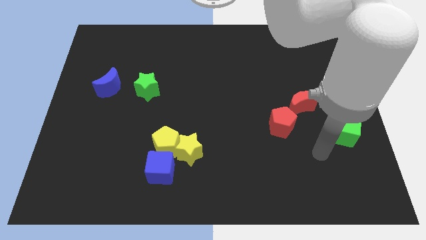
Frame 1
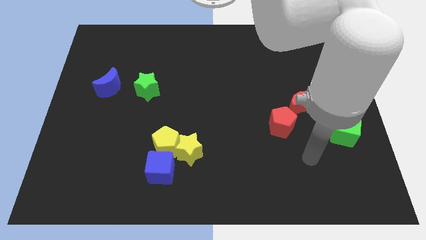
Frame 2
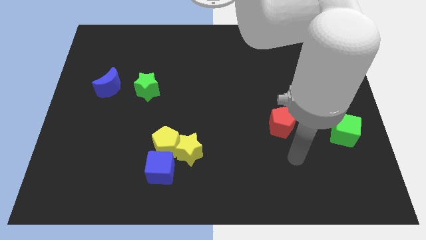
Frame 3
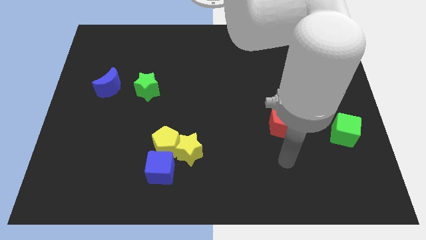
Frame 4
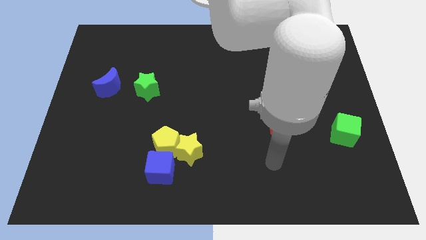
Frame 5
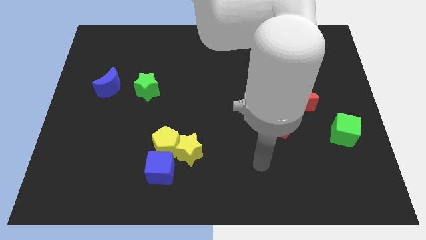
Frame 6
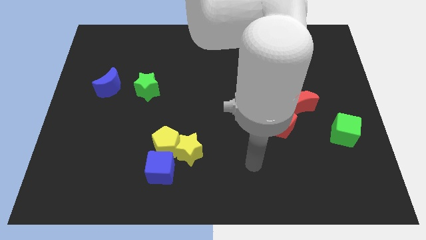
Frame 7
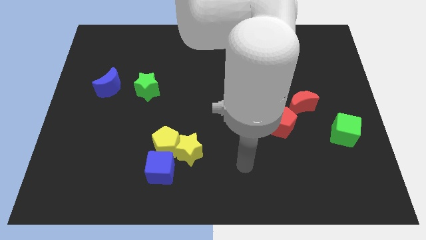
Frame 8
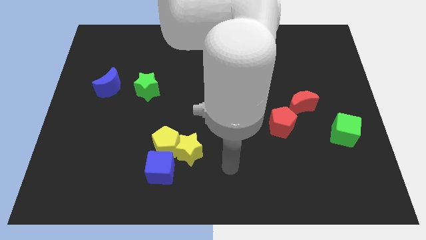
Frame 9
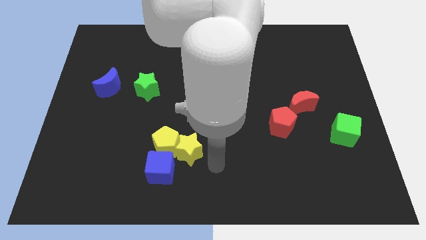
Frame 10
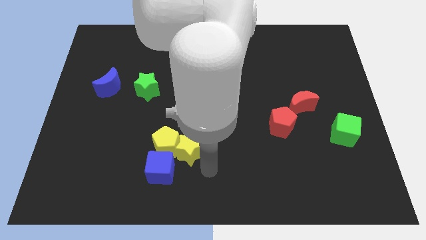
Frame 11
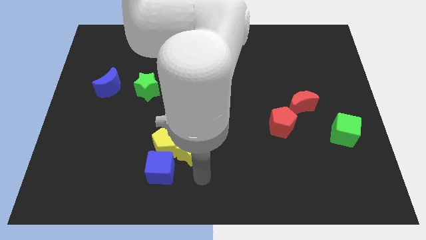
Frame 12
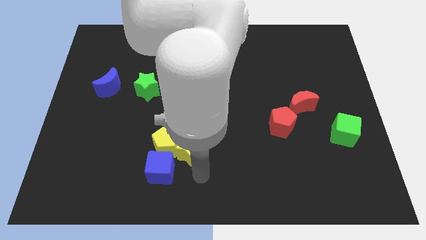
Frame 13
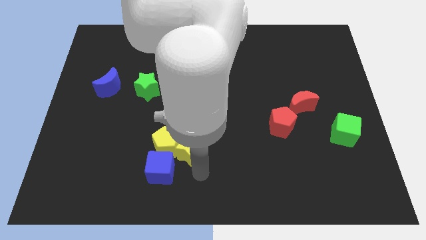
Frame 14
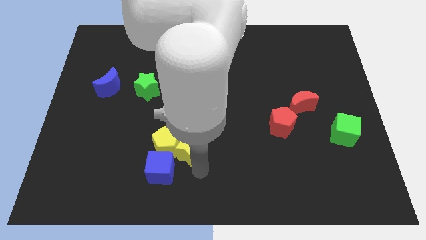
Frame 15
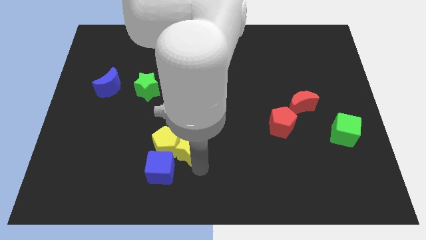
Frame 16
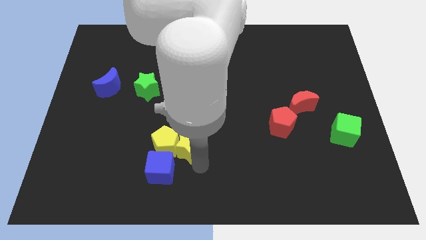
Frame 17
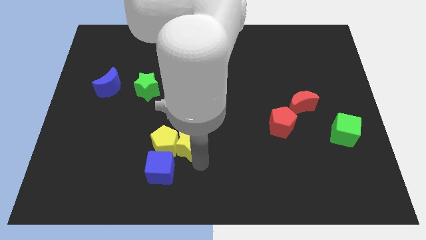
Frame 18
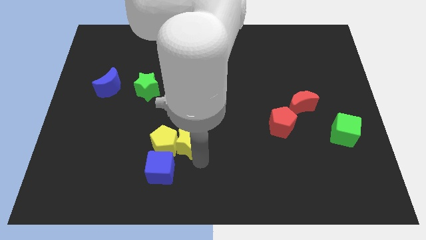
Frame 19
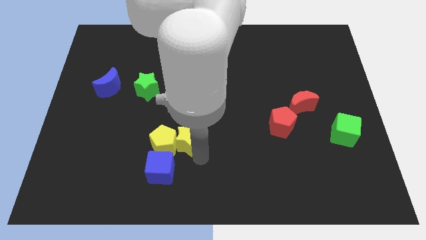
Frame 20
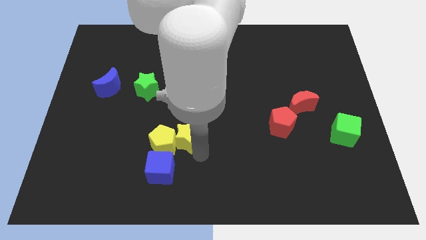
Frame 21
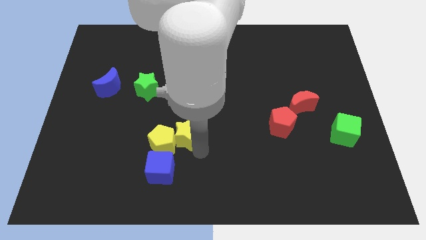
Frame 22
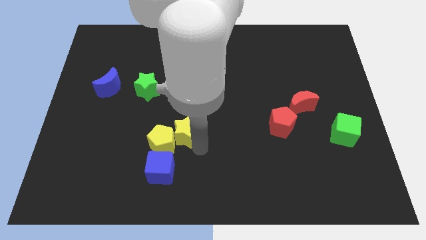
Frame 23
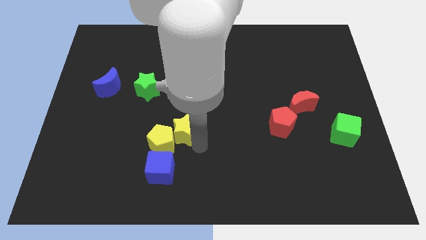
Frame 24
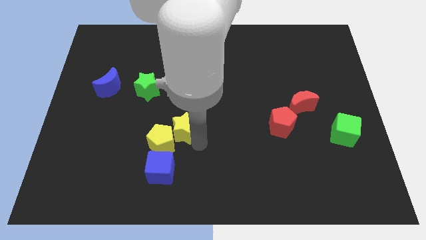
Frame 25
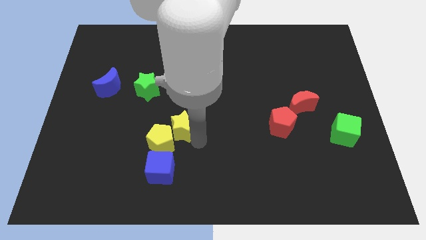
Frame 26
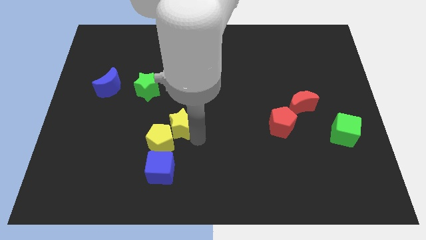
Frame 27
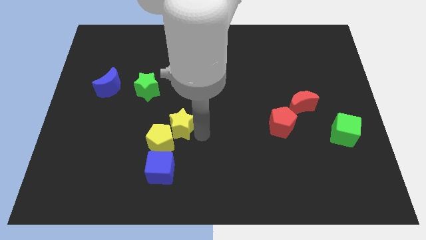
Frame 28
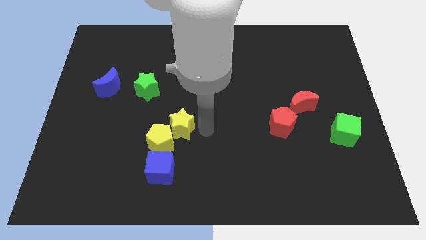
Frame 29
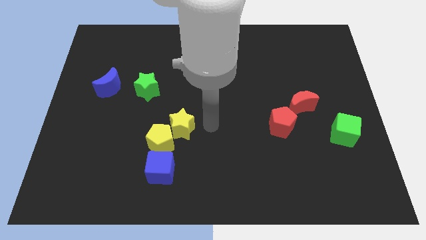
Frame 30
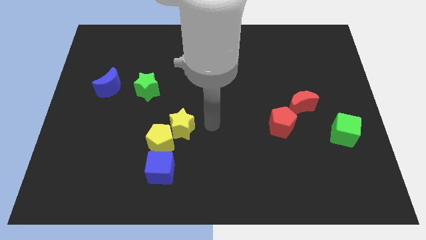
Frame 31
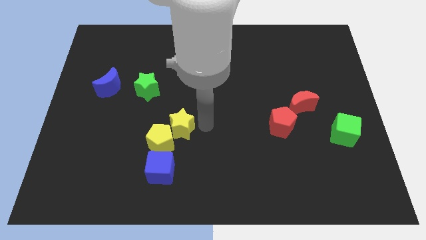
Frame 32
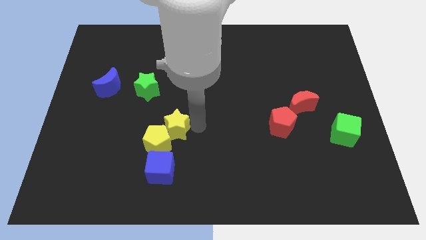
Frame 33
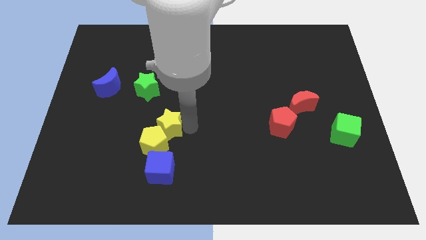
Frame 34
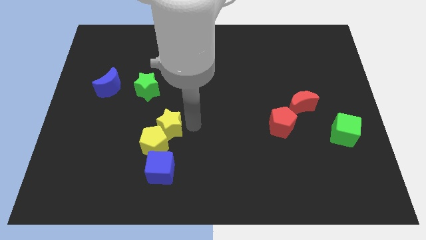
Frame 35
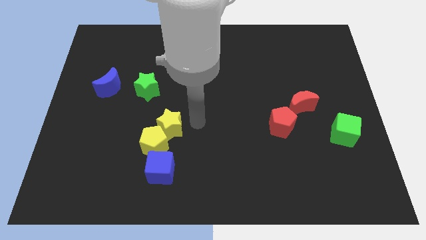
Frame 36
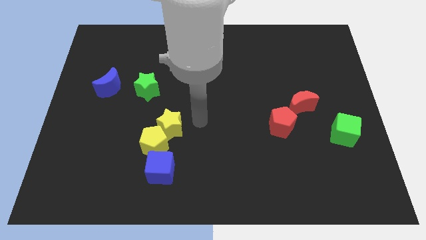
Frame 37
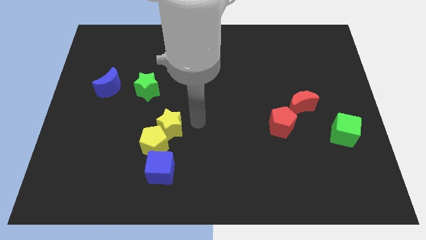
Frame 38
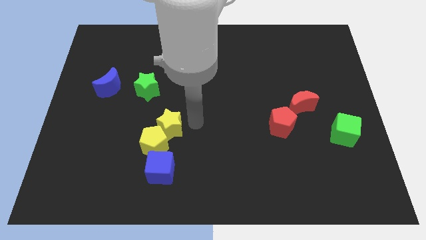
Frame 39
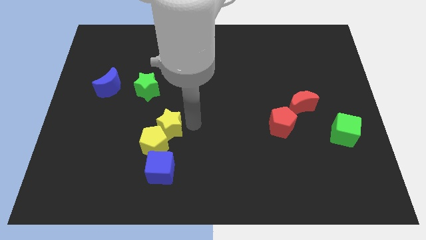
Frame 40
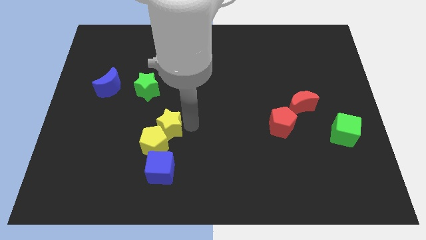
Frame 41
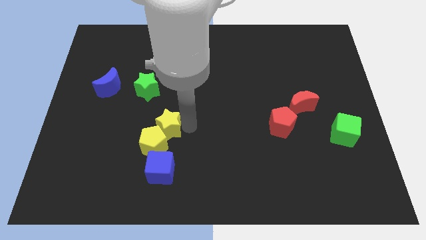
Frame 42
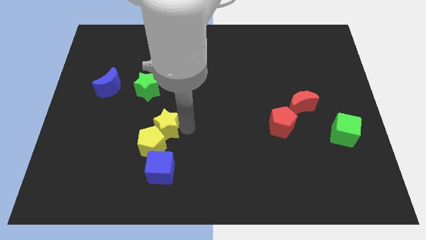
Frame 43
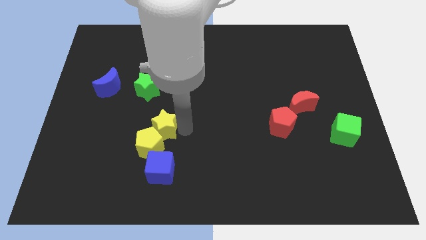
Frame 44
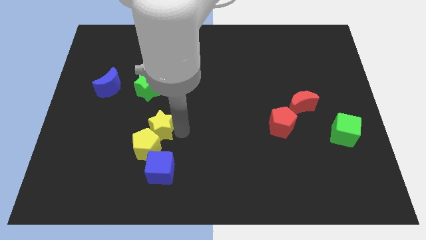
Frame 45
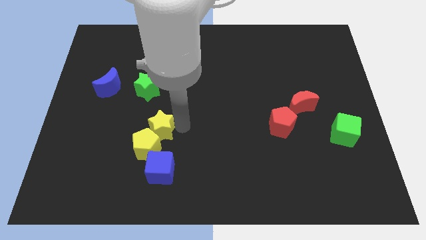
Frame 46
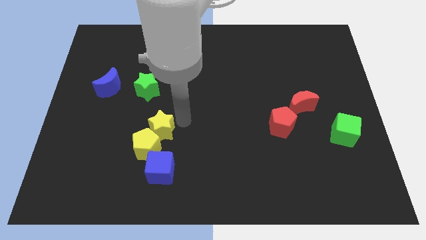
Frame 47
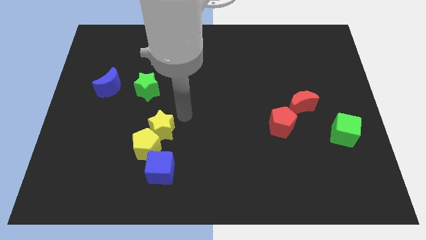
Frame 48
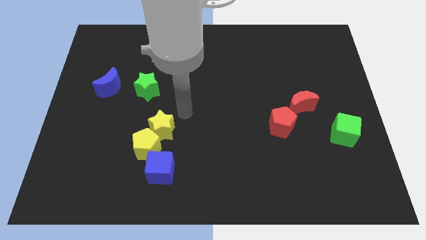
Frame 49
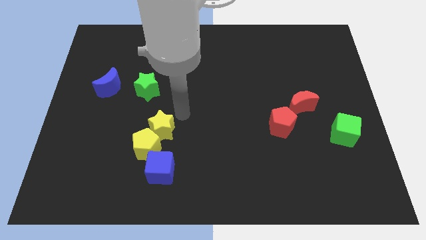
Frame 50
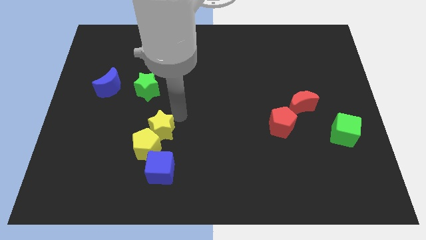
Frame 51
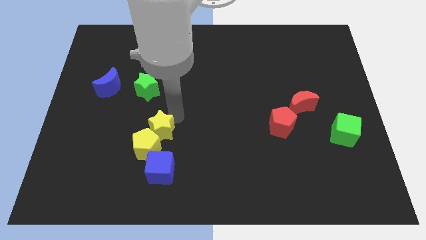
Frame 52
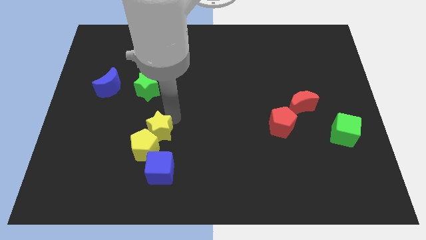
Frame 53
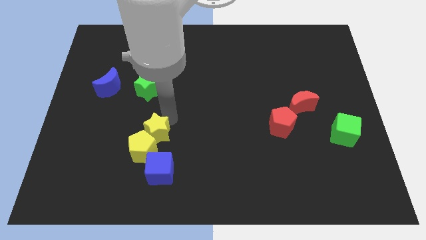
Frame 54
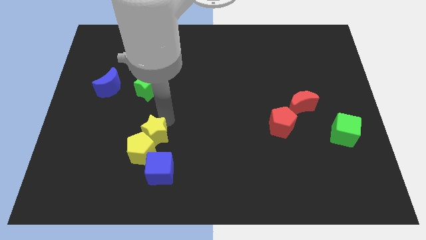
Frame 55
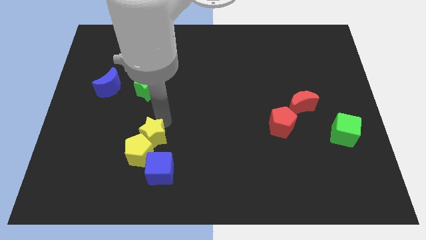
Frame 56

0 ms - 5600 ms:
push the yellow star diagonally up and to the left of the blue cube

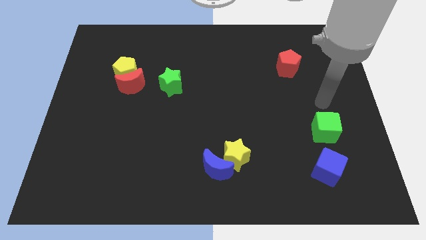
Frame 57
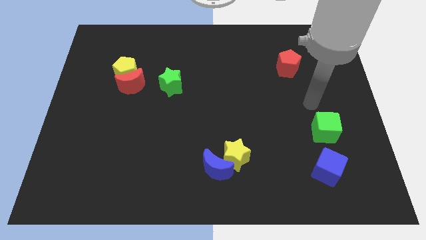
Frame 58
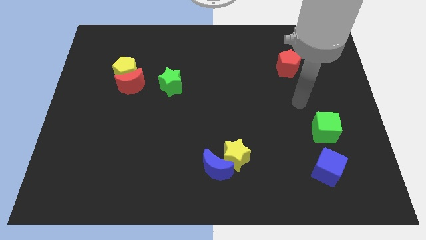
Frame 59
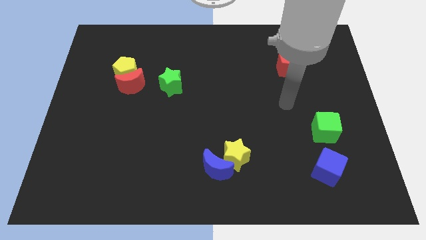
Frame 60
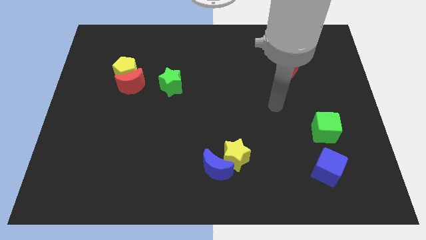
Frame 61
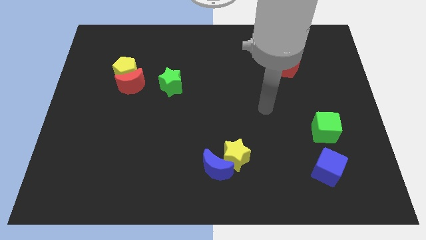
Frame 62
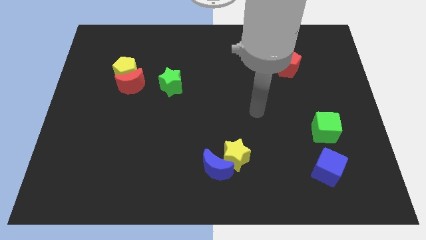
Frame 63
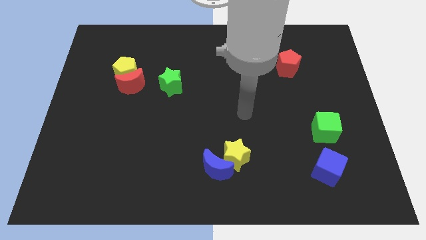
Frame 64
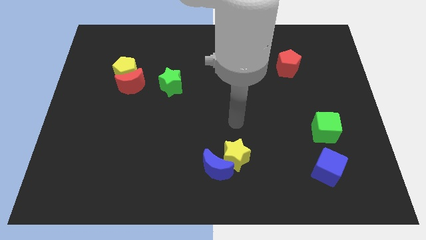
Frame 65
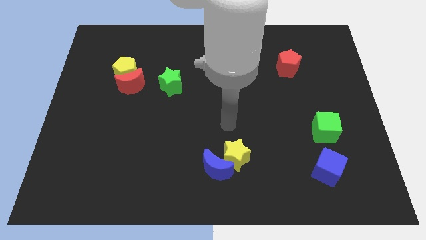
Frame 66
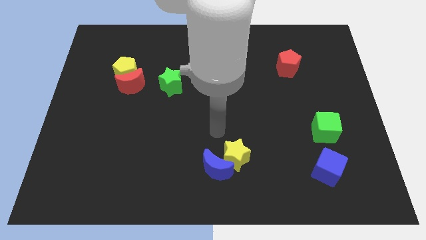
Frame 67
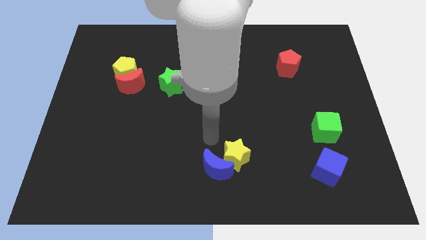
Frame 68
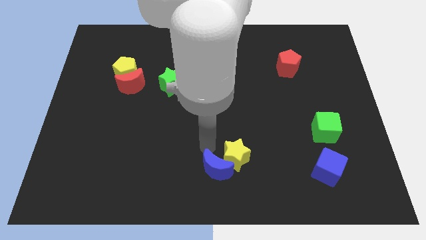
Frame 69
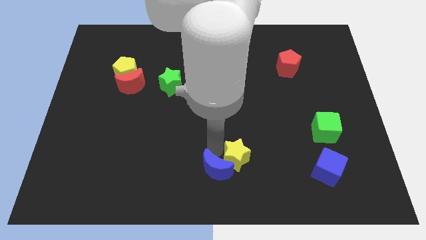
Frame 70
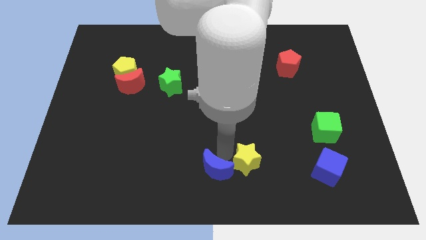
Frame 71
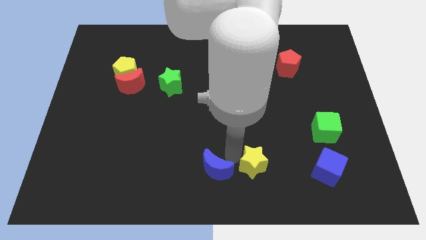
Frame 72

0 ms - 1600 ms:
put the yellow star to the left of the blue cube

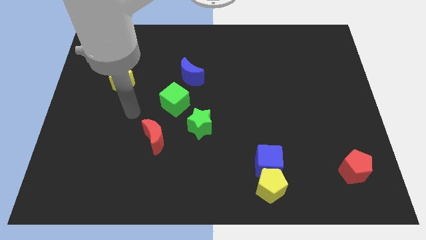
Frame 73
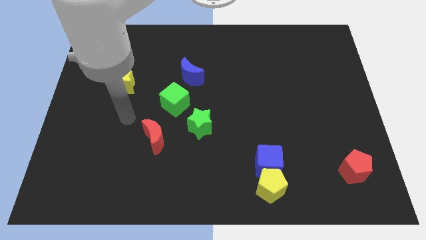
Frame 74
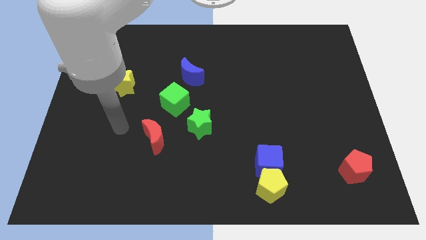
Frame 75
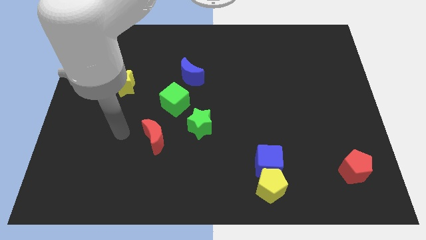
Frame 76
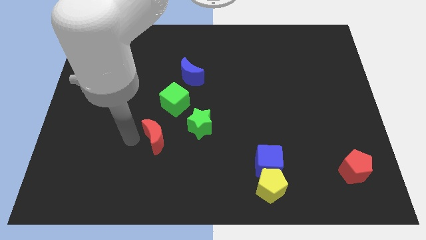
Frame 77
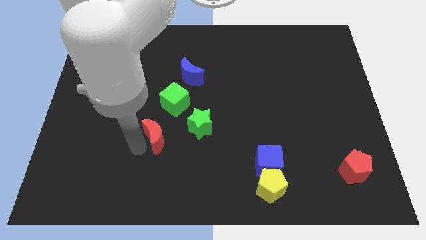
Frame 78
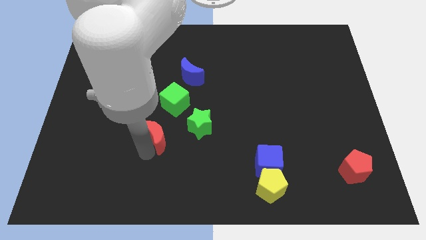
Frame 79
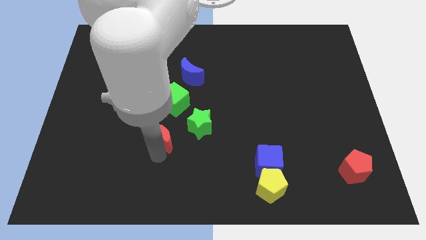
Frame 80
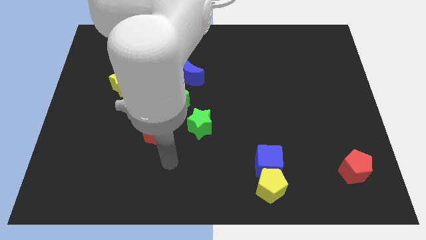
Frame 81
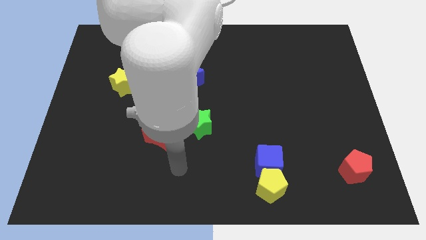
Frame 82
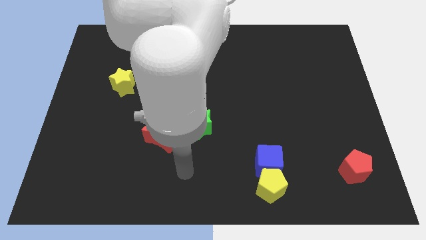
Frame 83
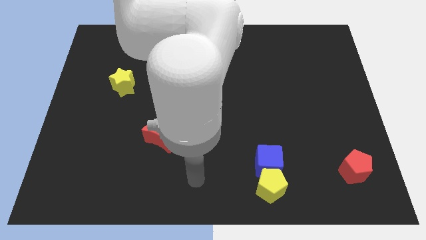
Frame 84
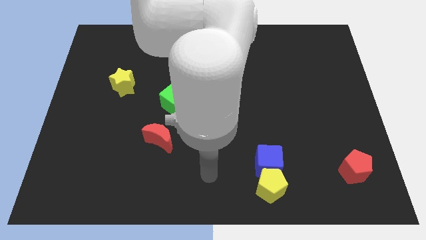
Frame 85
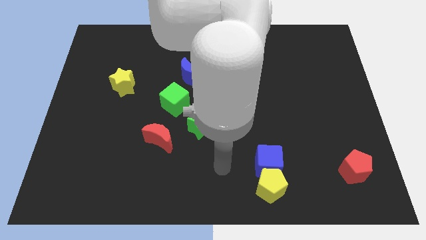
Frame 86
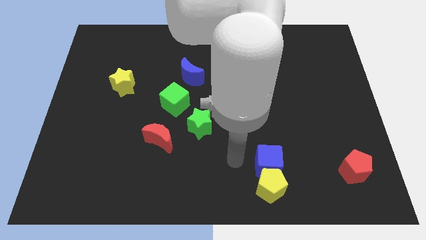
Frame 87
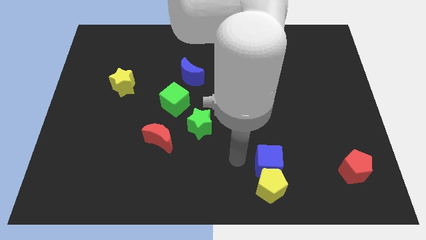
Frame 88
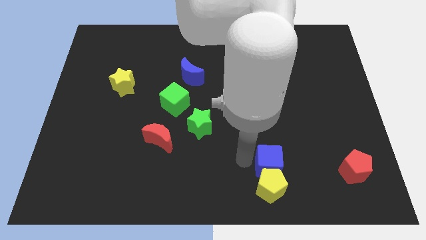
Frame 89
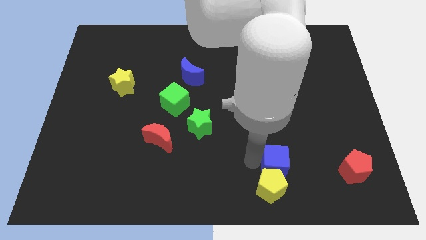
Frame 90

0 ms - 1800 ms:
move the blue cube to the left of the red pentagon
